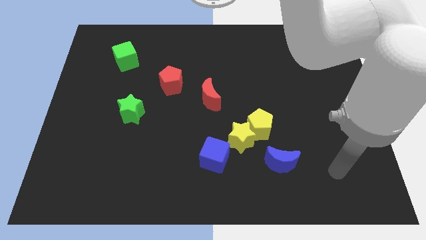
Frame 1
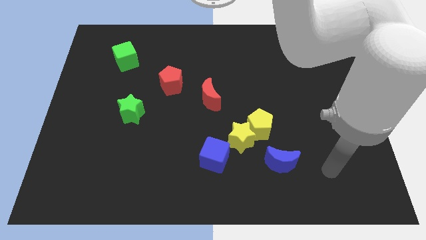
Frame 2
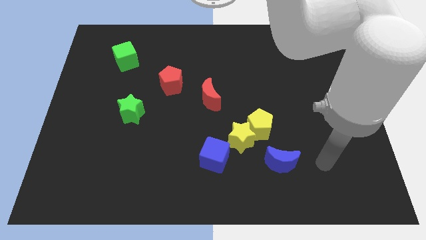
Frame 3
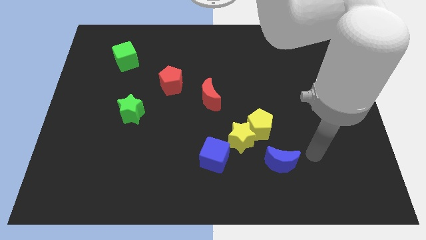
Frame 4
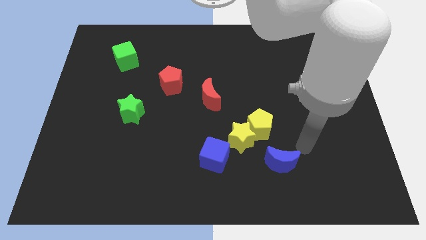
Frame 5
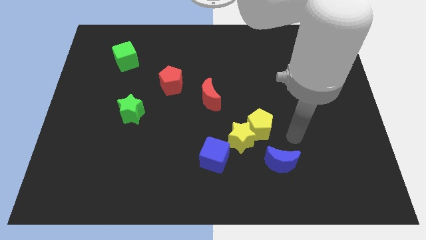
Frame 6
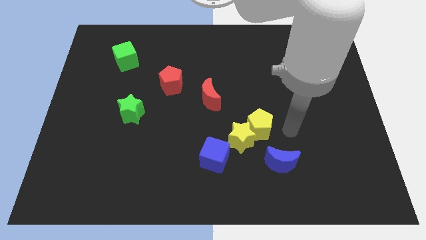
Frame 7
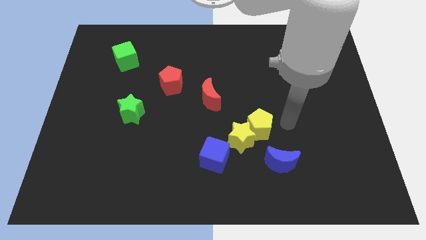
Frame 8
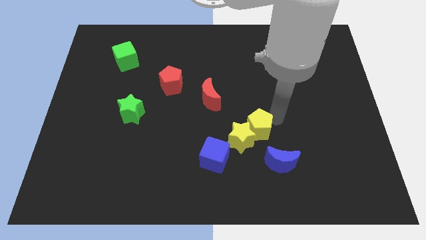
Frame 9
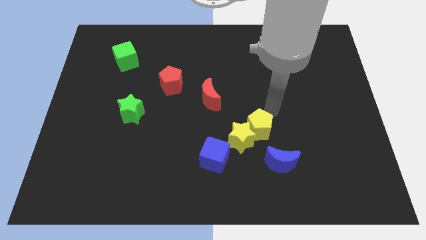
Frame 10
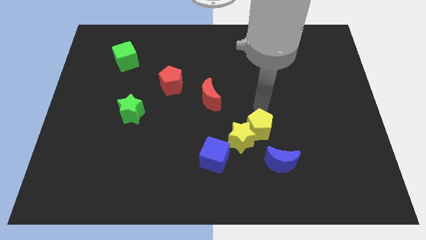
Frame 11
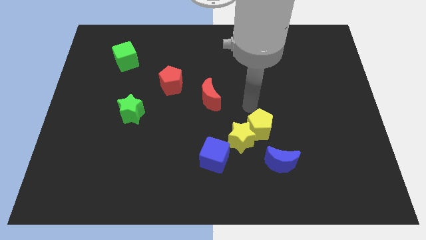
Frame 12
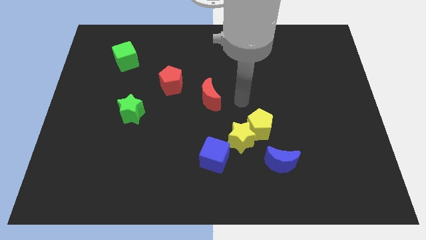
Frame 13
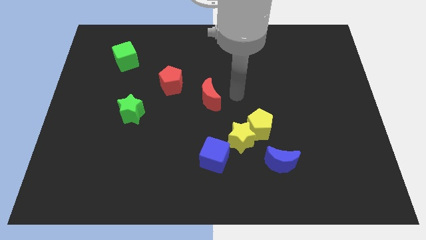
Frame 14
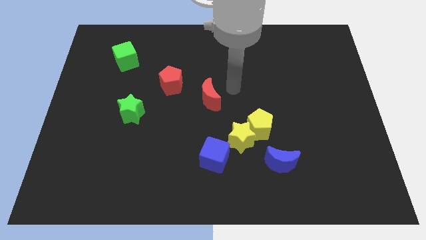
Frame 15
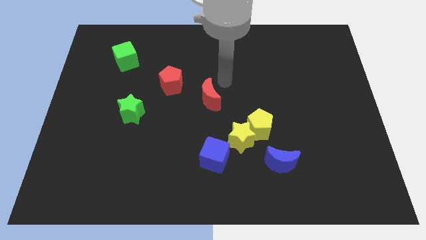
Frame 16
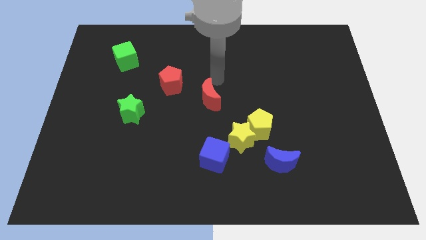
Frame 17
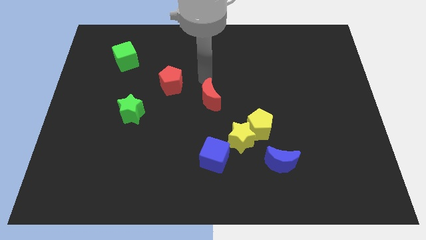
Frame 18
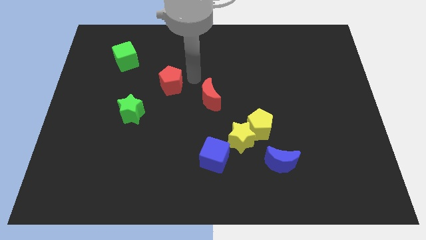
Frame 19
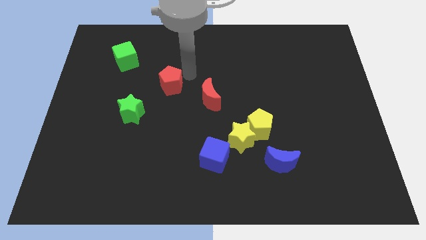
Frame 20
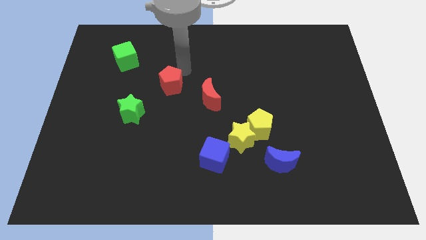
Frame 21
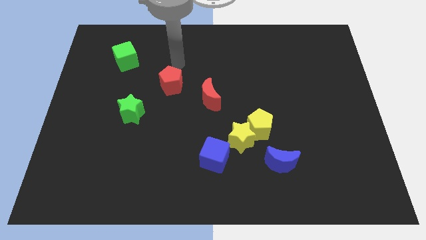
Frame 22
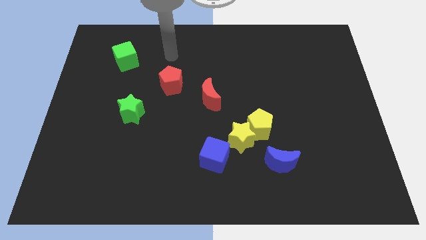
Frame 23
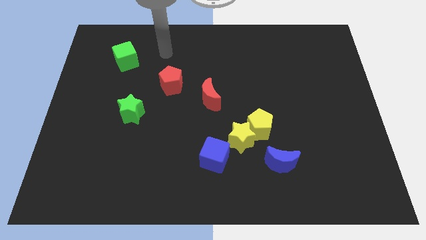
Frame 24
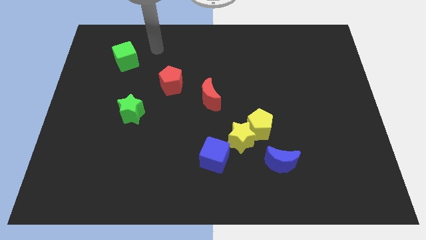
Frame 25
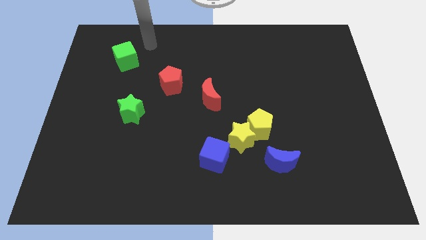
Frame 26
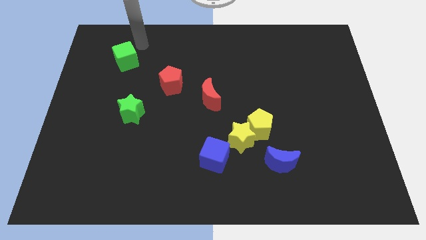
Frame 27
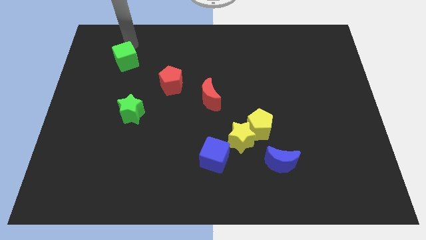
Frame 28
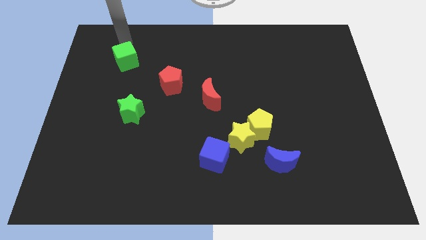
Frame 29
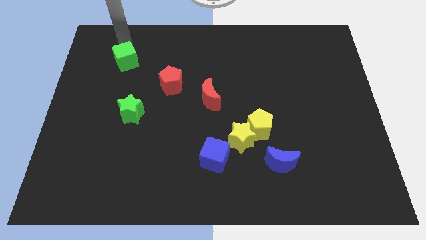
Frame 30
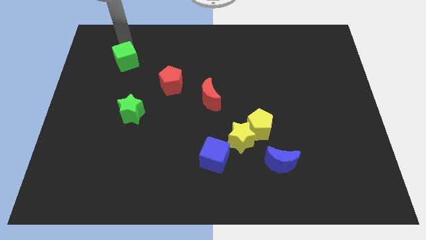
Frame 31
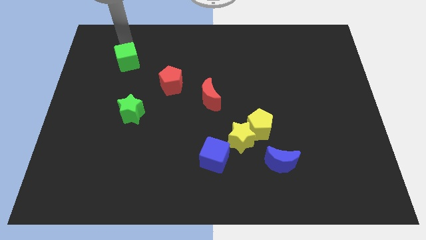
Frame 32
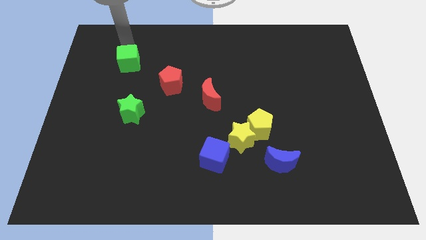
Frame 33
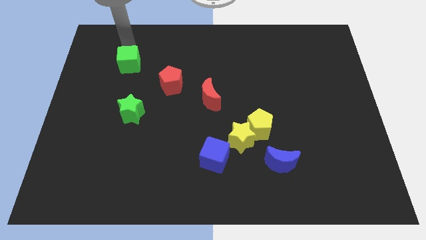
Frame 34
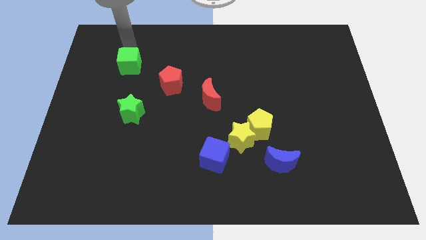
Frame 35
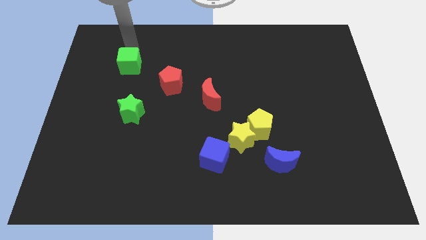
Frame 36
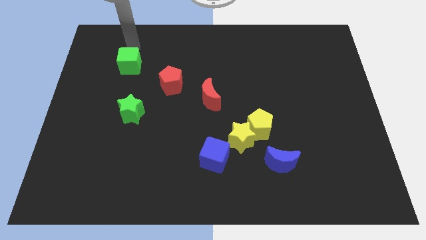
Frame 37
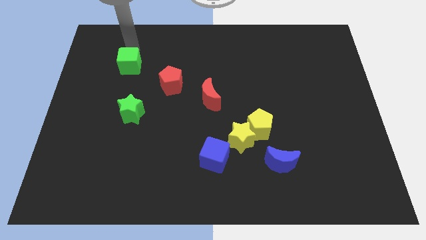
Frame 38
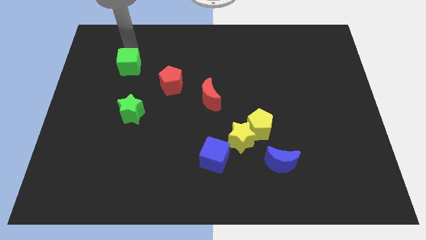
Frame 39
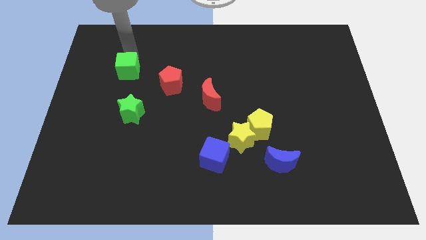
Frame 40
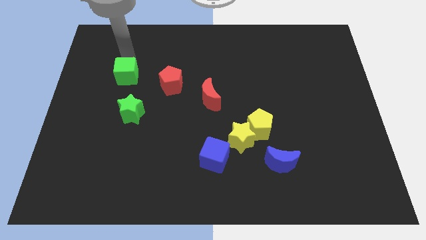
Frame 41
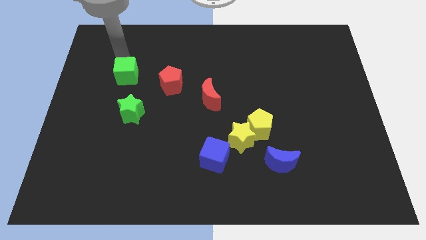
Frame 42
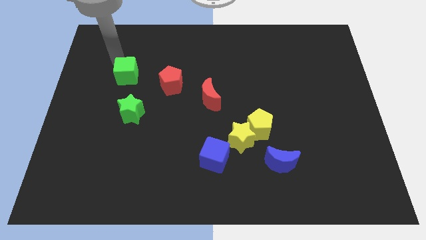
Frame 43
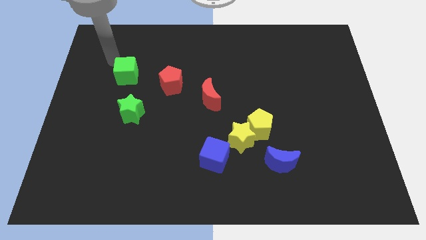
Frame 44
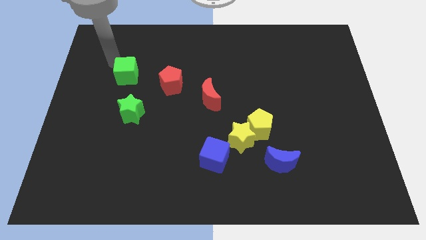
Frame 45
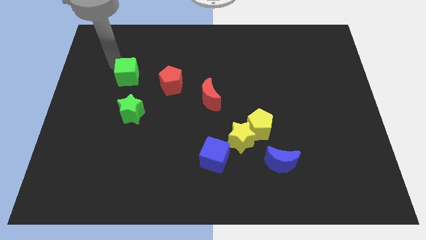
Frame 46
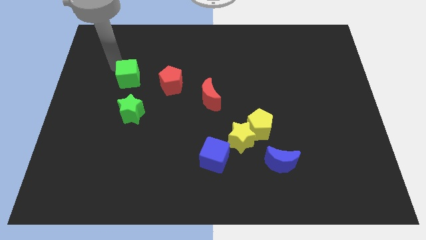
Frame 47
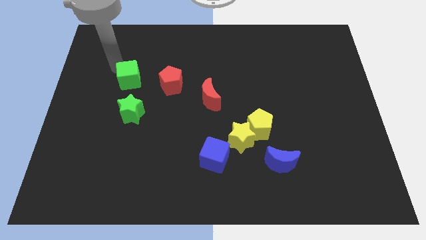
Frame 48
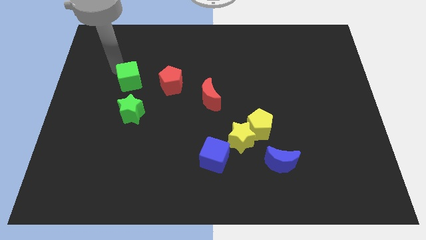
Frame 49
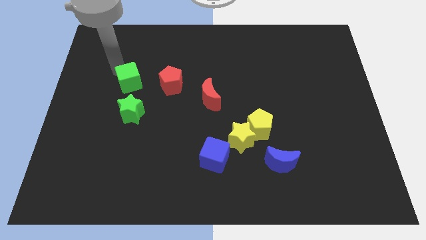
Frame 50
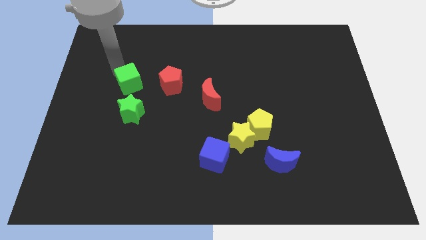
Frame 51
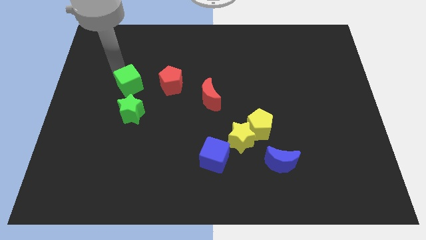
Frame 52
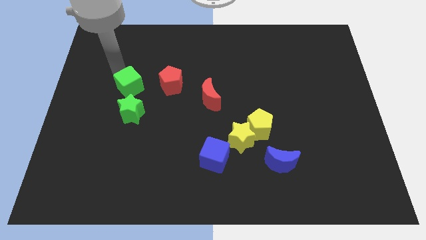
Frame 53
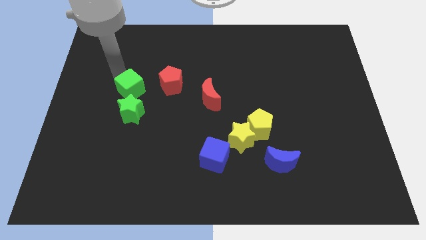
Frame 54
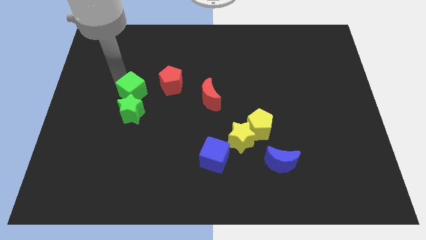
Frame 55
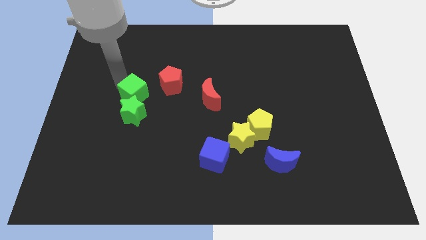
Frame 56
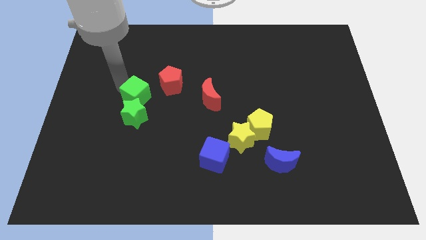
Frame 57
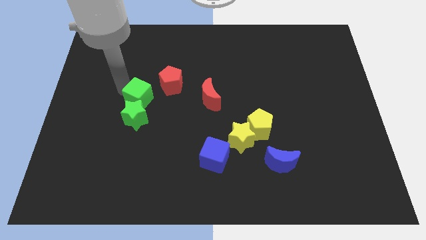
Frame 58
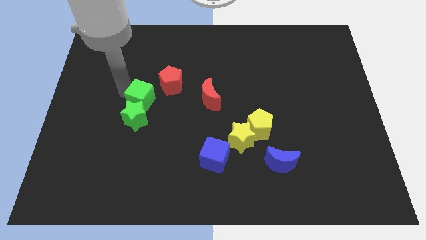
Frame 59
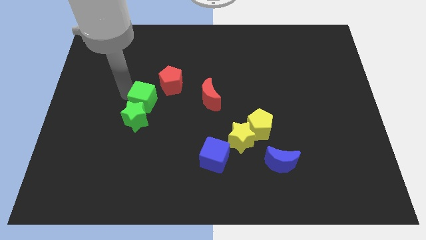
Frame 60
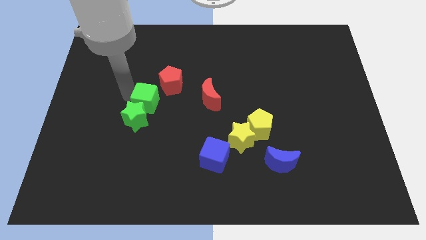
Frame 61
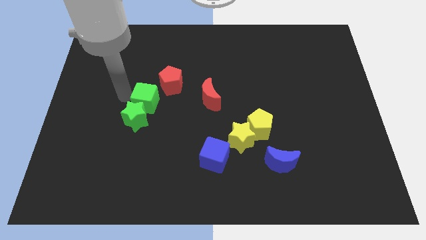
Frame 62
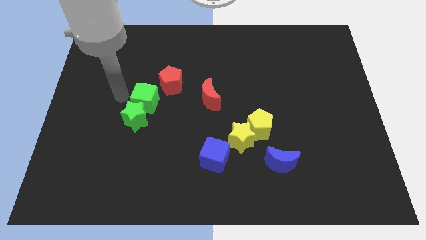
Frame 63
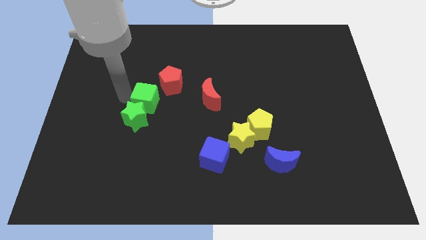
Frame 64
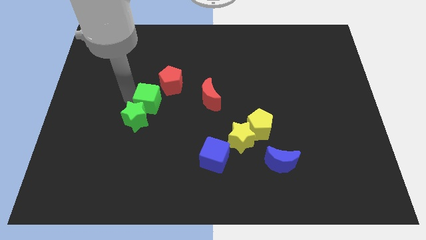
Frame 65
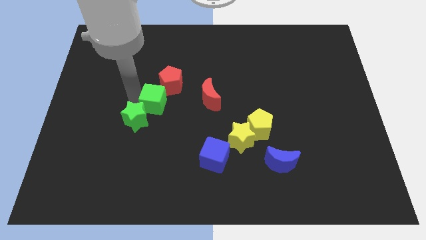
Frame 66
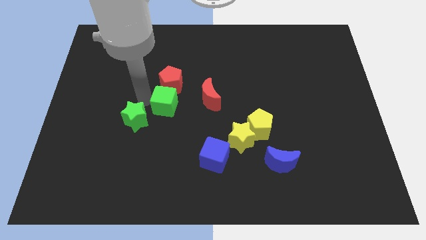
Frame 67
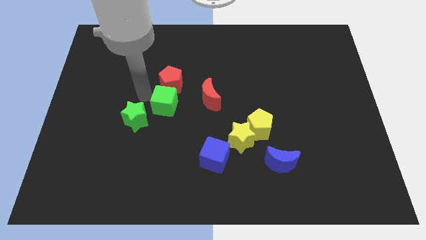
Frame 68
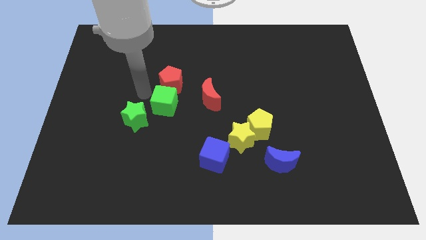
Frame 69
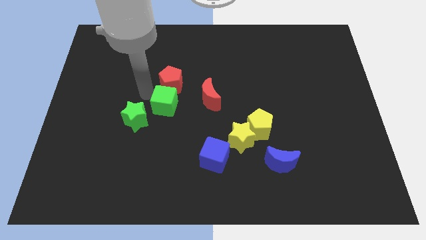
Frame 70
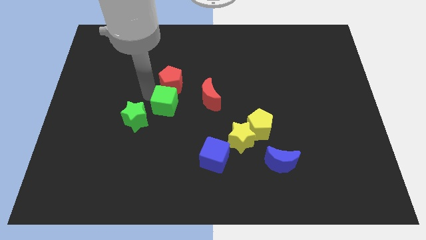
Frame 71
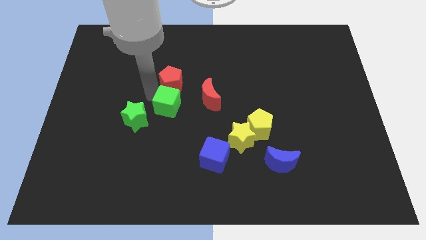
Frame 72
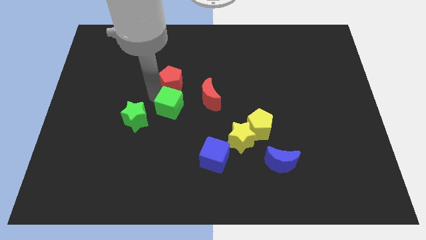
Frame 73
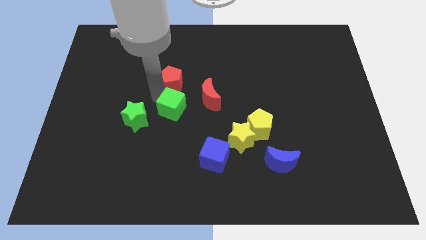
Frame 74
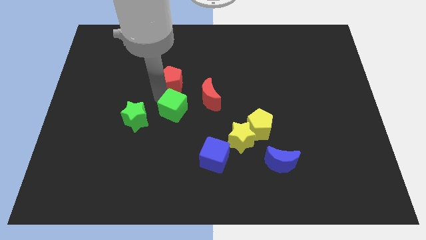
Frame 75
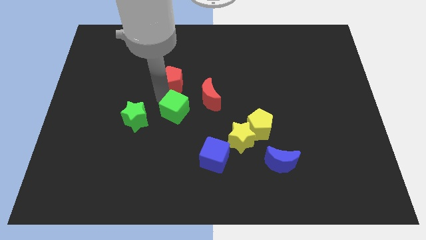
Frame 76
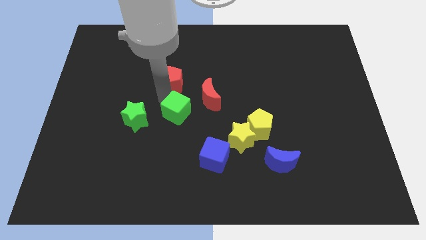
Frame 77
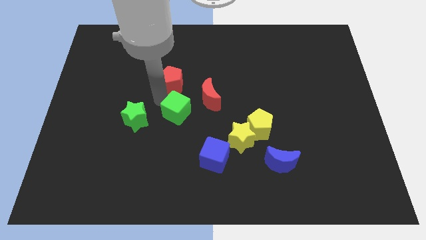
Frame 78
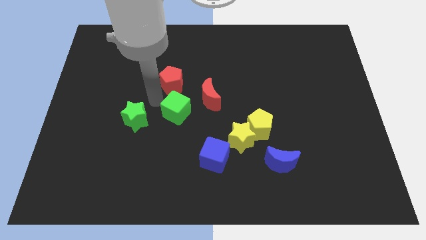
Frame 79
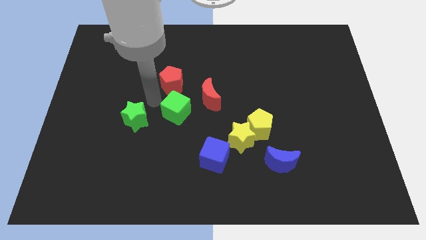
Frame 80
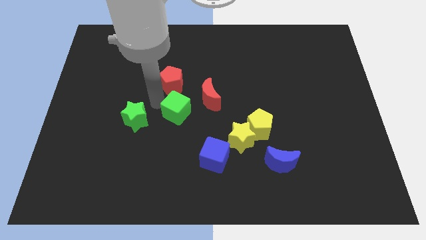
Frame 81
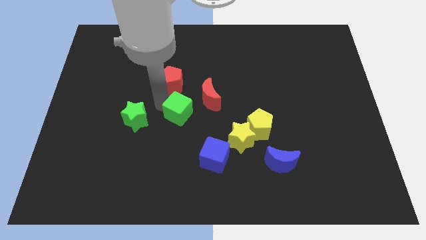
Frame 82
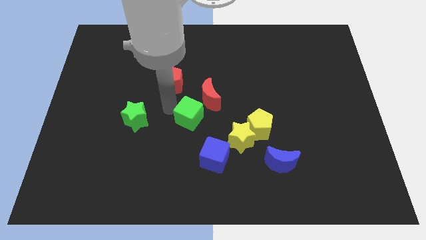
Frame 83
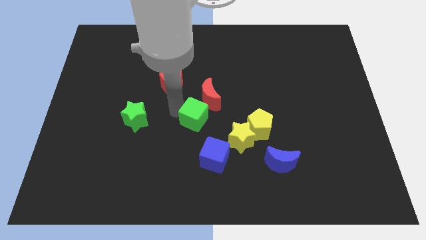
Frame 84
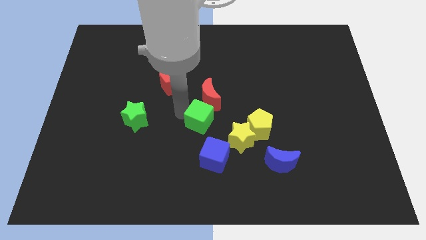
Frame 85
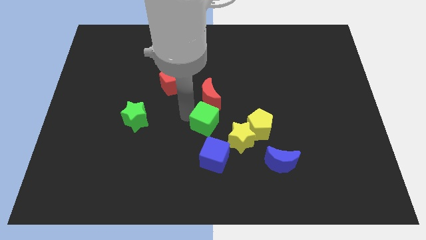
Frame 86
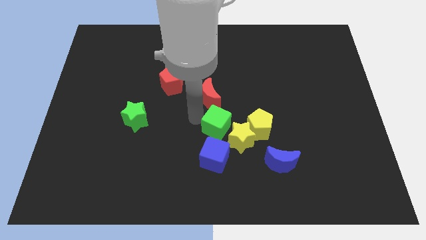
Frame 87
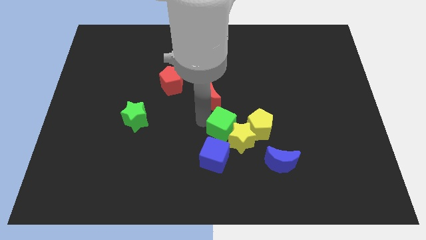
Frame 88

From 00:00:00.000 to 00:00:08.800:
slide the green cube next to the yellow star
